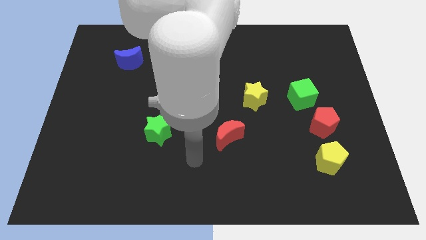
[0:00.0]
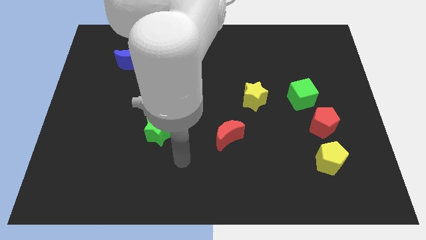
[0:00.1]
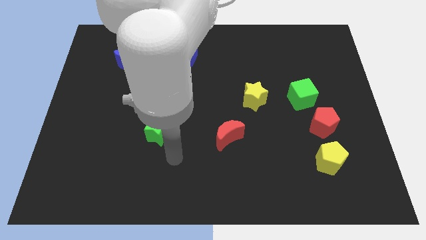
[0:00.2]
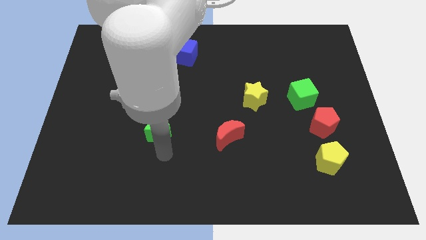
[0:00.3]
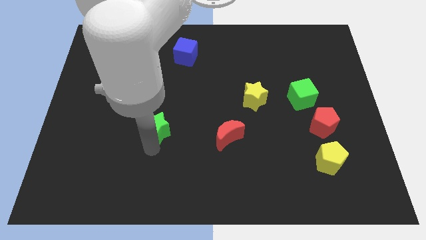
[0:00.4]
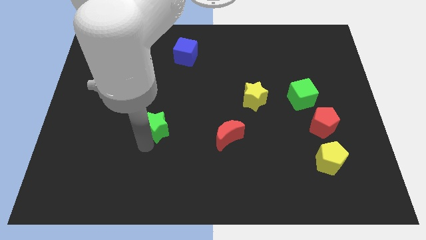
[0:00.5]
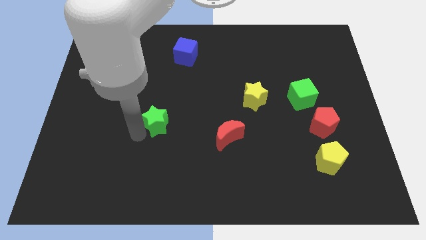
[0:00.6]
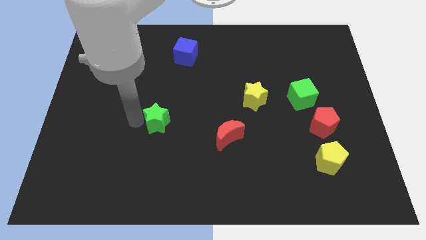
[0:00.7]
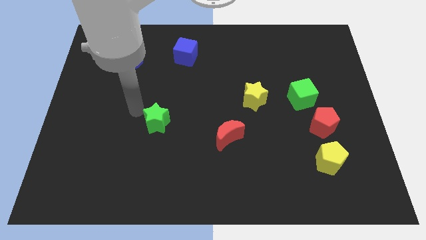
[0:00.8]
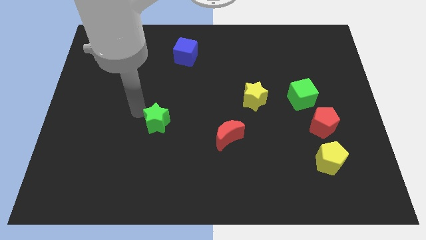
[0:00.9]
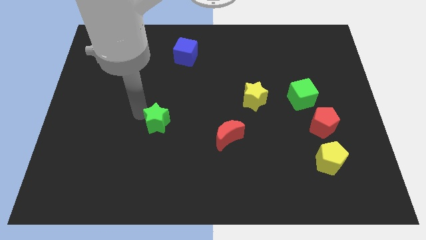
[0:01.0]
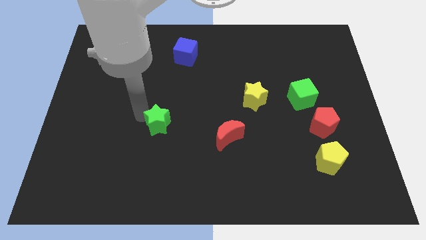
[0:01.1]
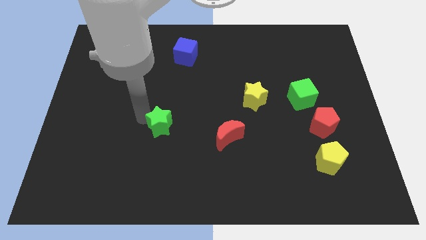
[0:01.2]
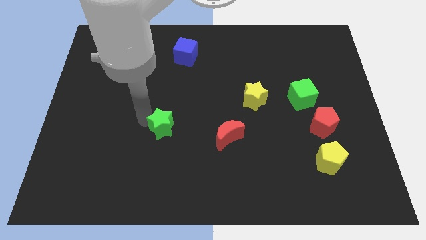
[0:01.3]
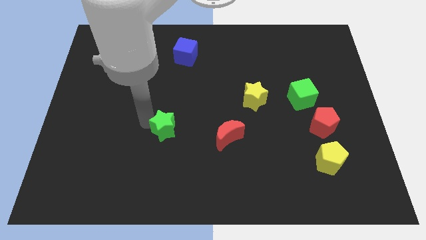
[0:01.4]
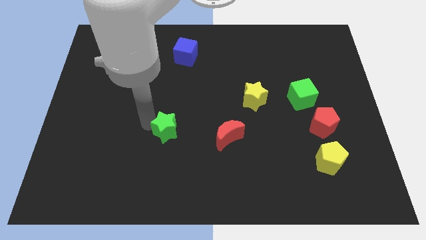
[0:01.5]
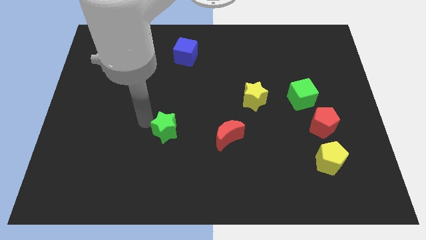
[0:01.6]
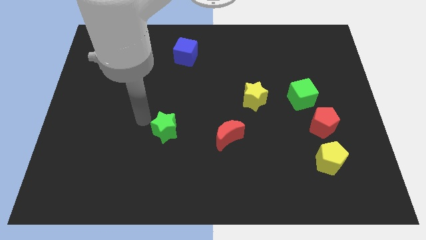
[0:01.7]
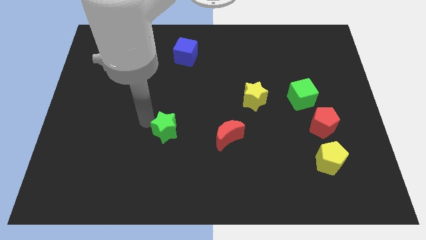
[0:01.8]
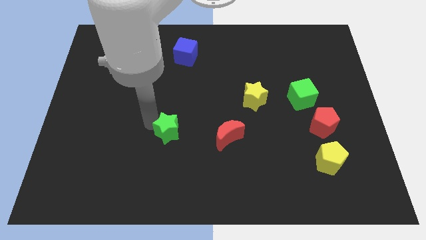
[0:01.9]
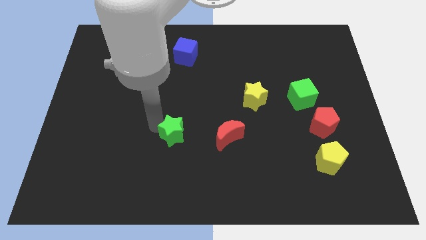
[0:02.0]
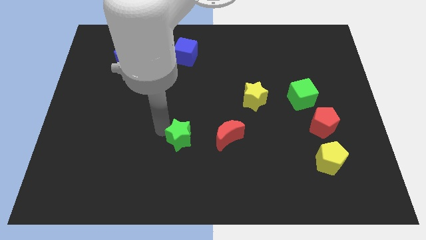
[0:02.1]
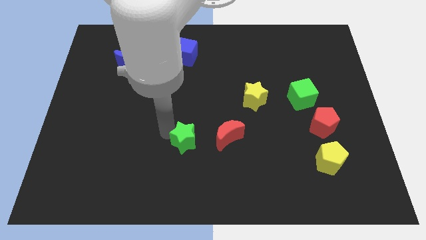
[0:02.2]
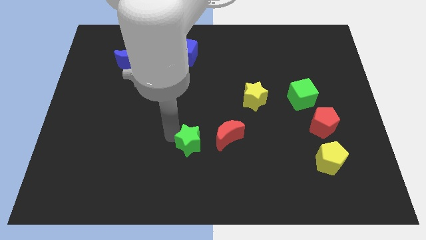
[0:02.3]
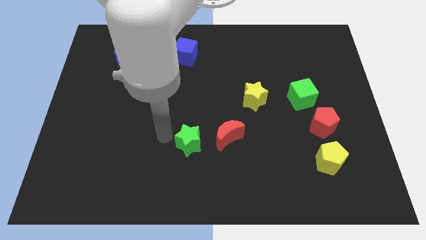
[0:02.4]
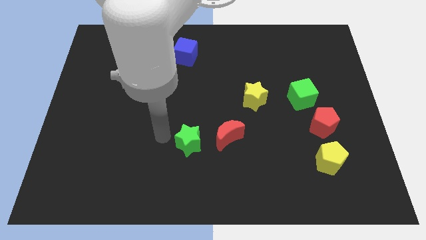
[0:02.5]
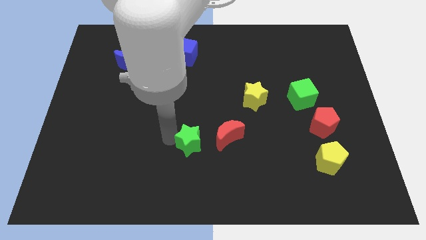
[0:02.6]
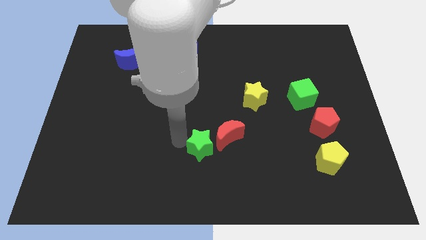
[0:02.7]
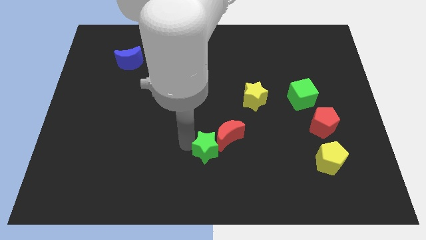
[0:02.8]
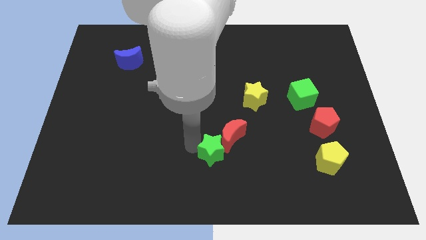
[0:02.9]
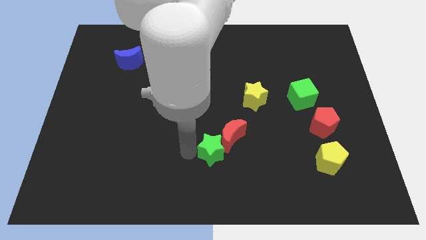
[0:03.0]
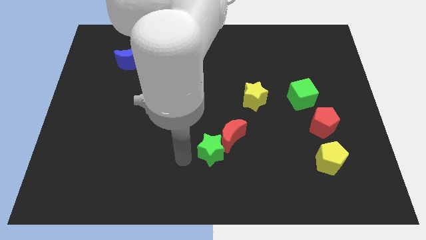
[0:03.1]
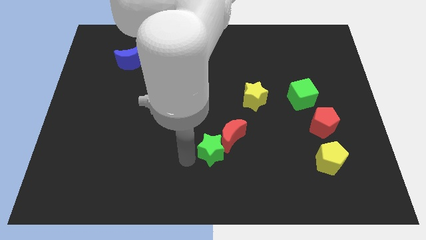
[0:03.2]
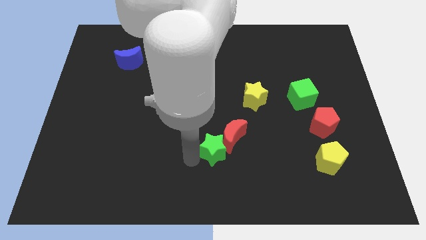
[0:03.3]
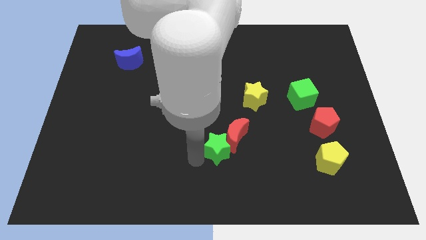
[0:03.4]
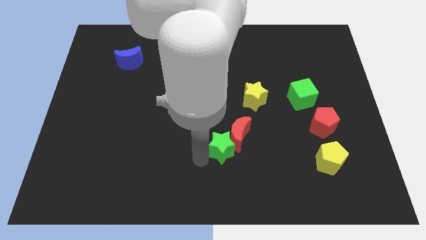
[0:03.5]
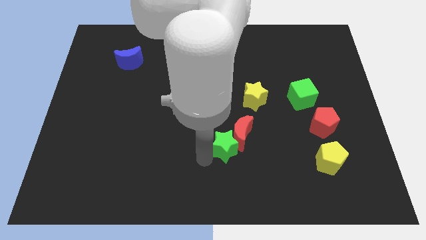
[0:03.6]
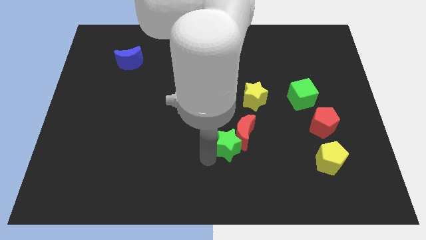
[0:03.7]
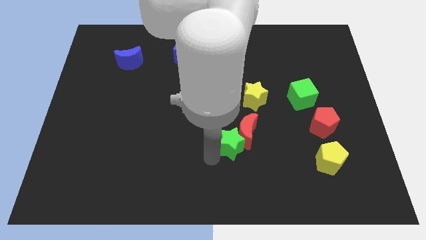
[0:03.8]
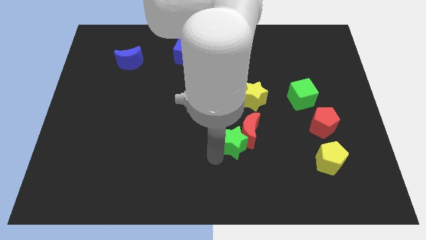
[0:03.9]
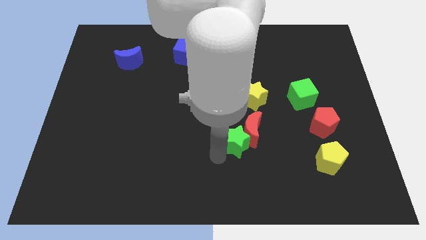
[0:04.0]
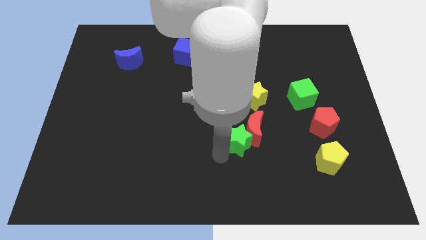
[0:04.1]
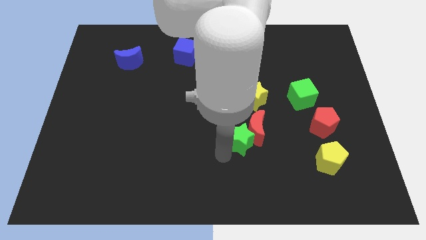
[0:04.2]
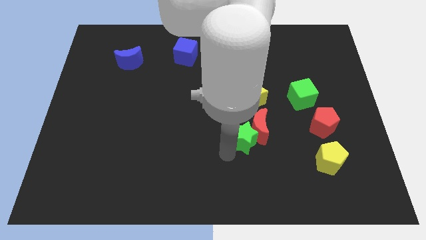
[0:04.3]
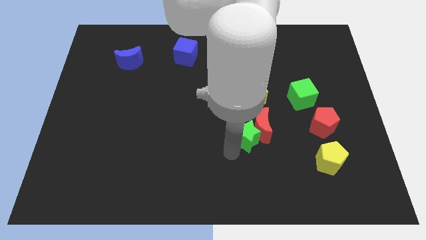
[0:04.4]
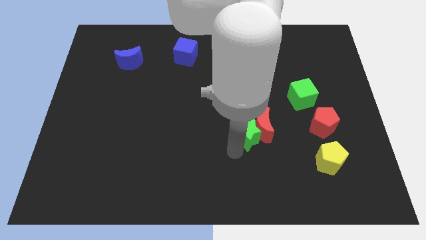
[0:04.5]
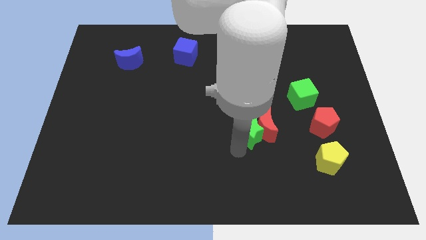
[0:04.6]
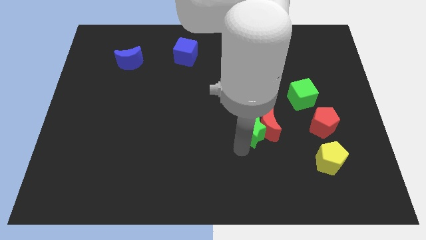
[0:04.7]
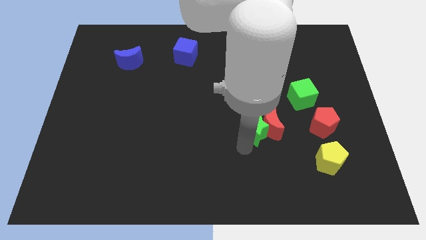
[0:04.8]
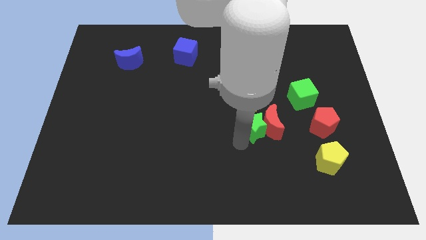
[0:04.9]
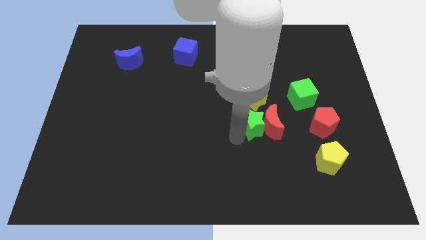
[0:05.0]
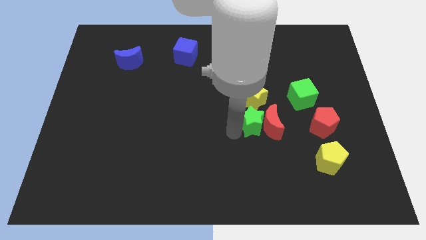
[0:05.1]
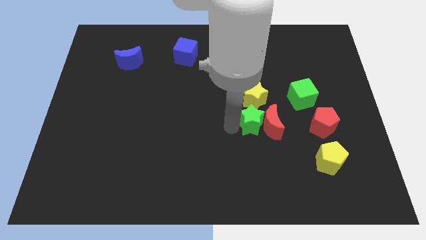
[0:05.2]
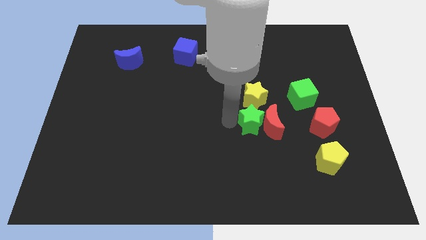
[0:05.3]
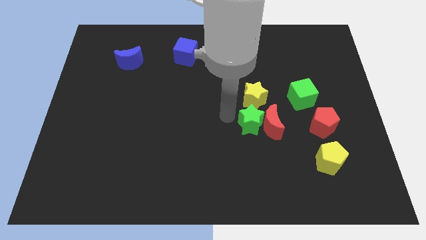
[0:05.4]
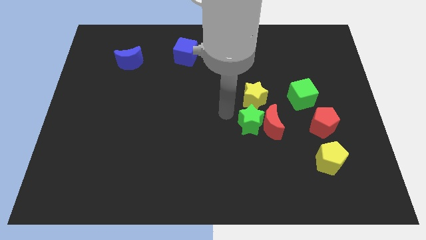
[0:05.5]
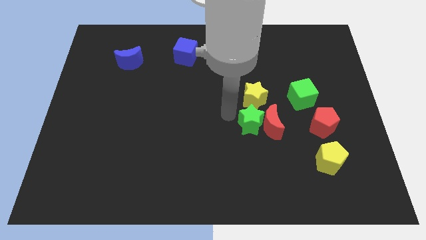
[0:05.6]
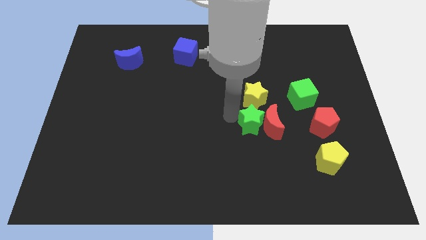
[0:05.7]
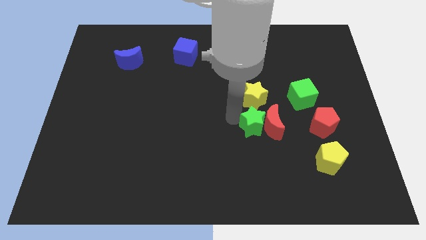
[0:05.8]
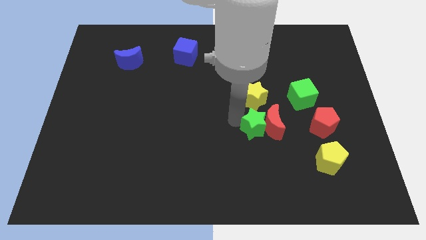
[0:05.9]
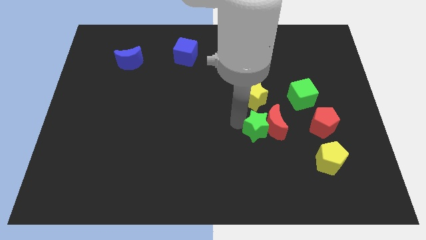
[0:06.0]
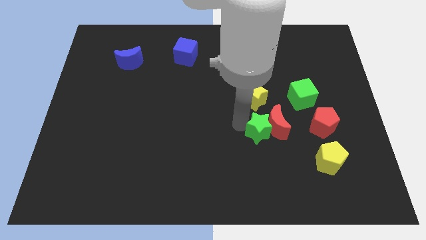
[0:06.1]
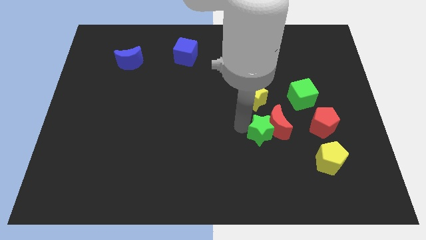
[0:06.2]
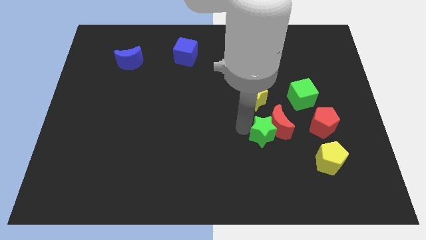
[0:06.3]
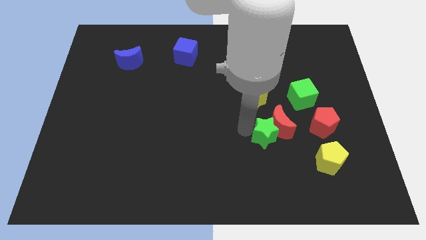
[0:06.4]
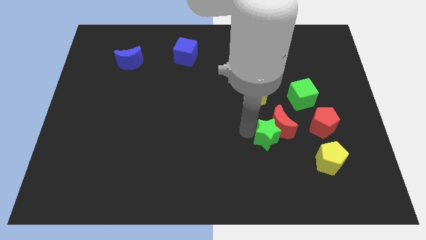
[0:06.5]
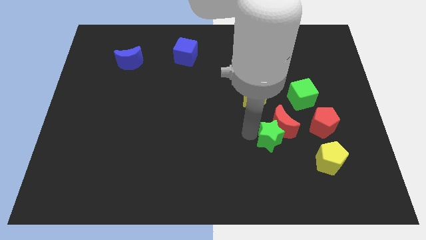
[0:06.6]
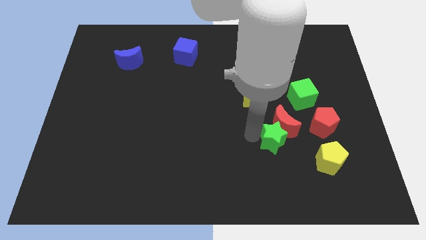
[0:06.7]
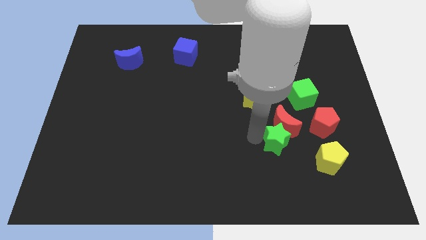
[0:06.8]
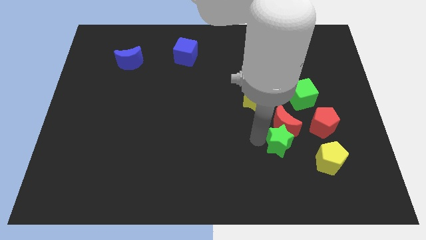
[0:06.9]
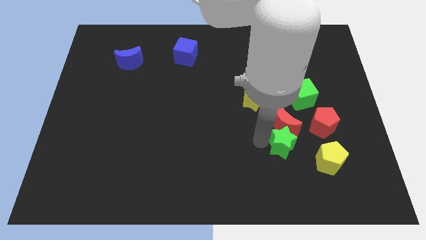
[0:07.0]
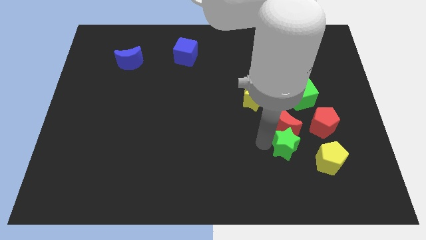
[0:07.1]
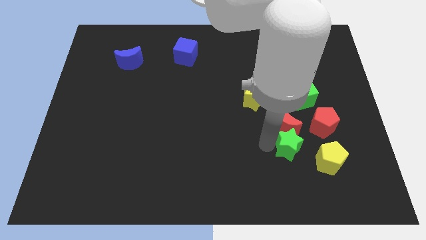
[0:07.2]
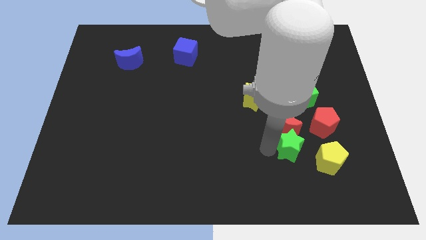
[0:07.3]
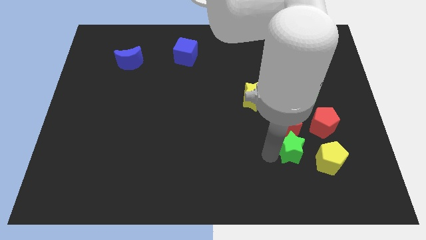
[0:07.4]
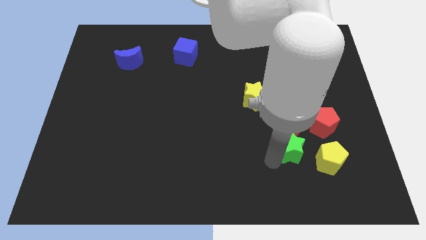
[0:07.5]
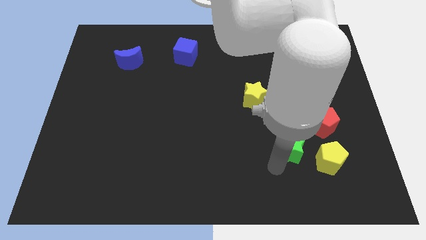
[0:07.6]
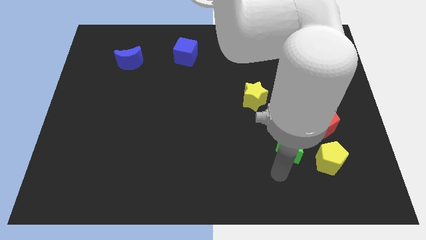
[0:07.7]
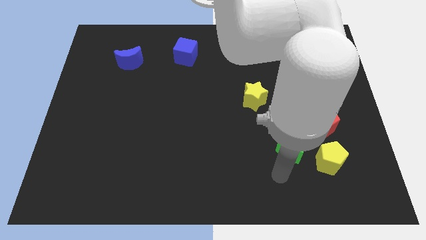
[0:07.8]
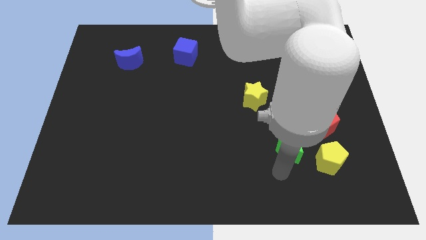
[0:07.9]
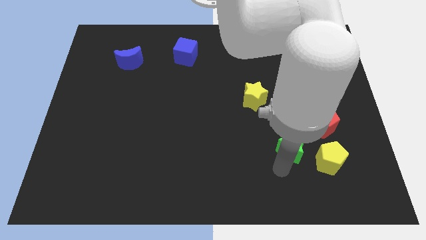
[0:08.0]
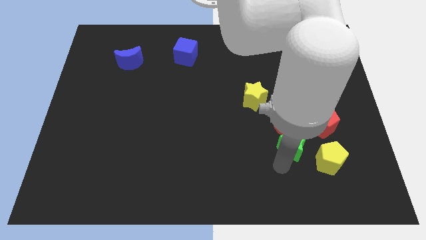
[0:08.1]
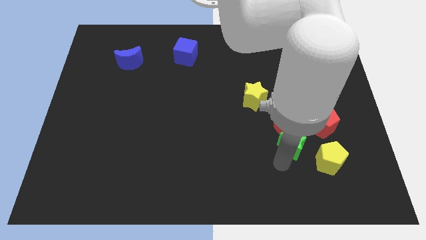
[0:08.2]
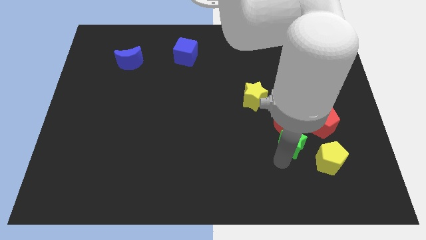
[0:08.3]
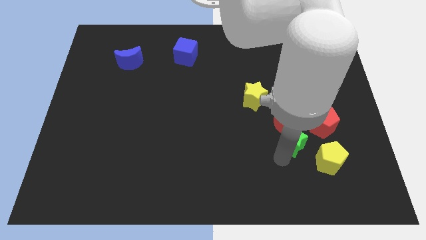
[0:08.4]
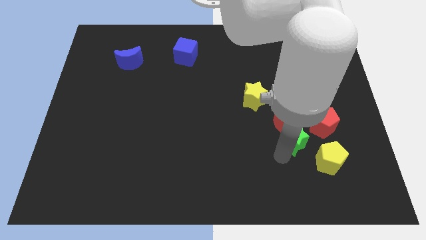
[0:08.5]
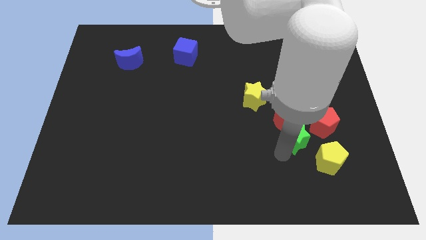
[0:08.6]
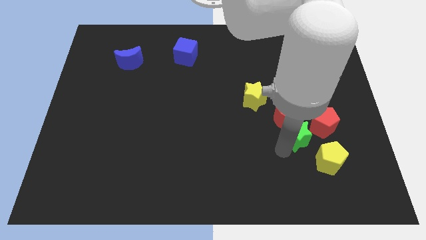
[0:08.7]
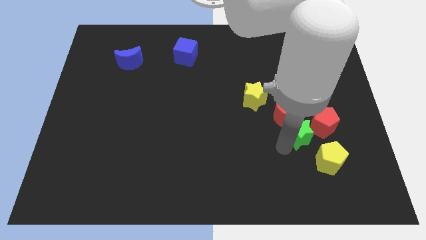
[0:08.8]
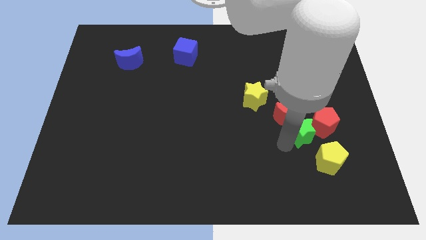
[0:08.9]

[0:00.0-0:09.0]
slide the green star next to the red pentagon
